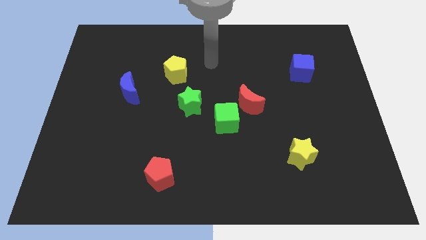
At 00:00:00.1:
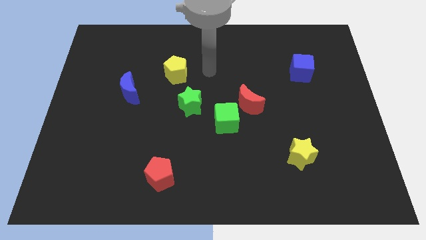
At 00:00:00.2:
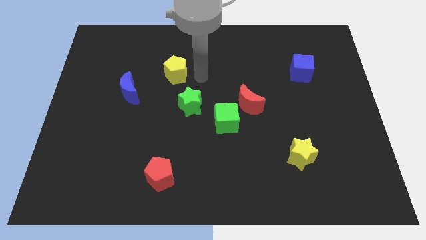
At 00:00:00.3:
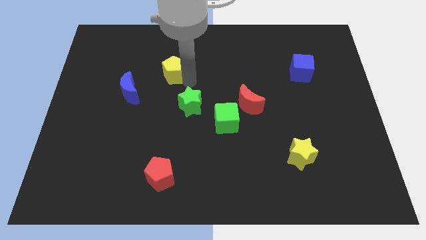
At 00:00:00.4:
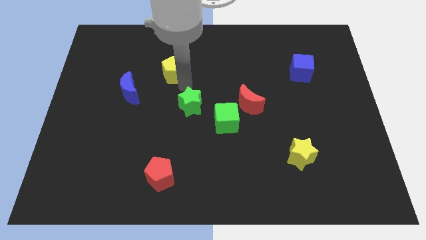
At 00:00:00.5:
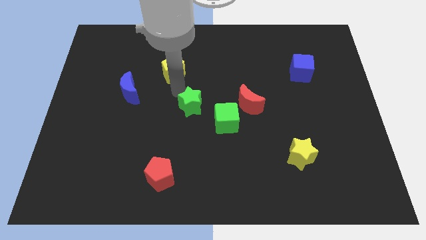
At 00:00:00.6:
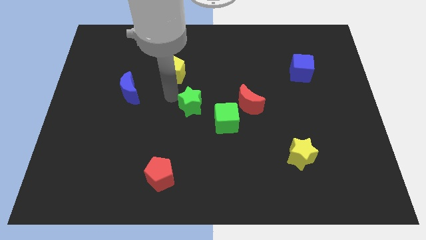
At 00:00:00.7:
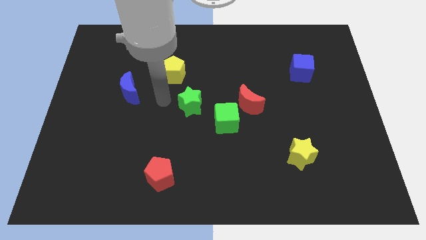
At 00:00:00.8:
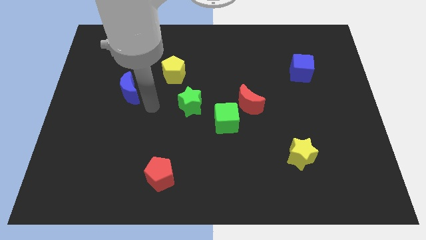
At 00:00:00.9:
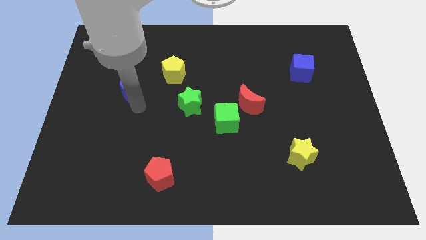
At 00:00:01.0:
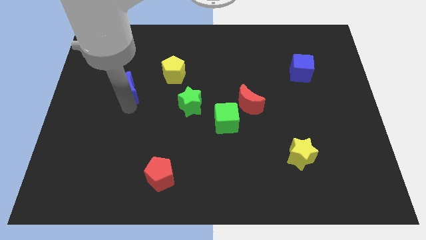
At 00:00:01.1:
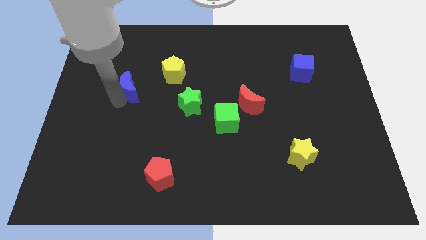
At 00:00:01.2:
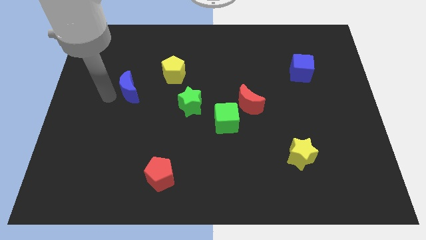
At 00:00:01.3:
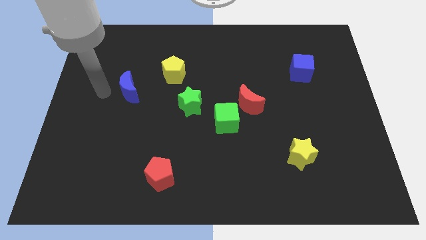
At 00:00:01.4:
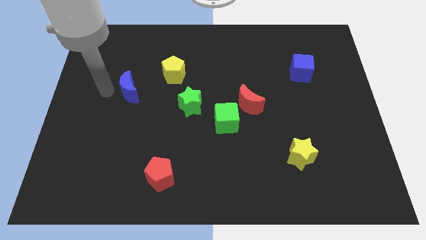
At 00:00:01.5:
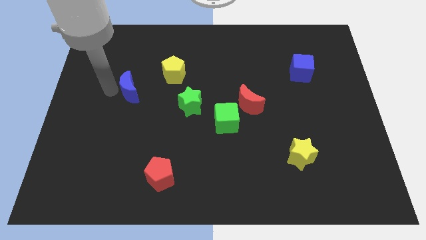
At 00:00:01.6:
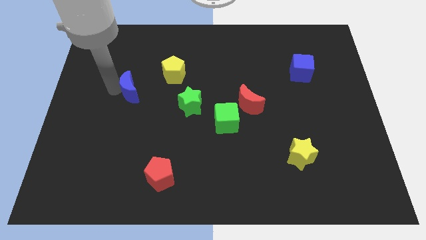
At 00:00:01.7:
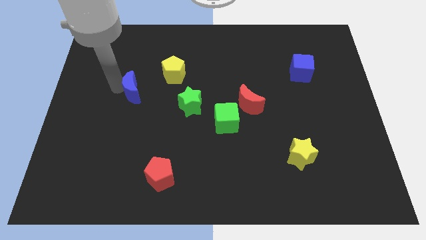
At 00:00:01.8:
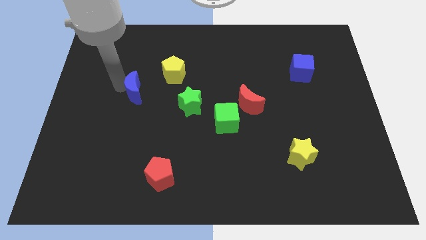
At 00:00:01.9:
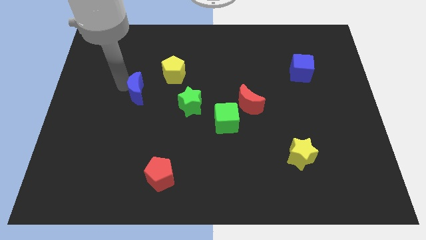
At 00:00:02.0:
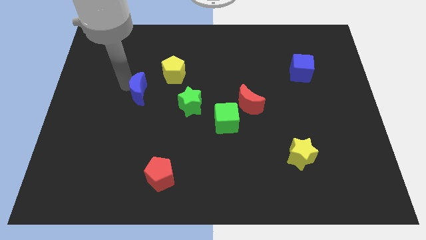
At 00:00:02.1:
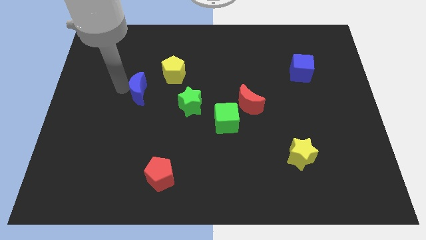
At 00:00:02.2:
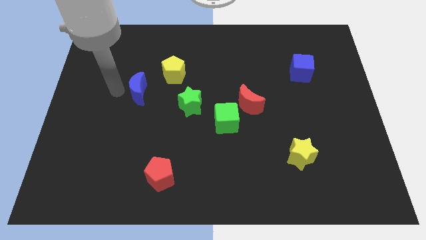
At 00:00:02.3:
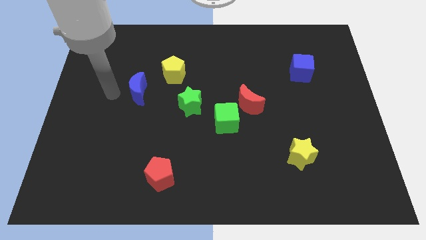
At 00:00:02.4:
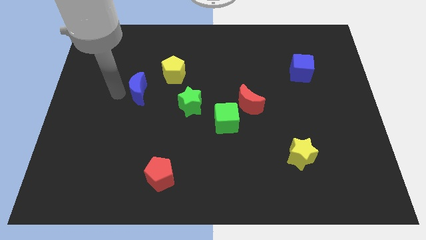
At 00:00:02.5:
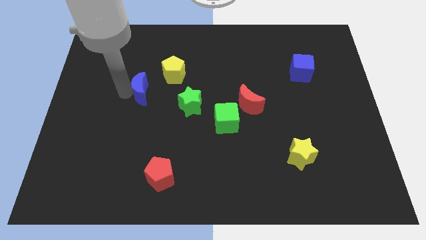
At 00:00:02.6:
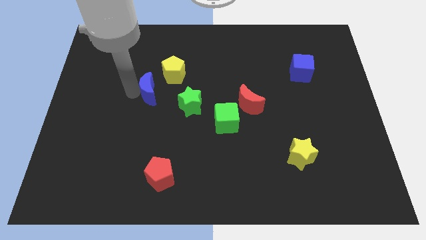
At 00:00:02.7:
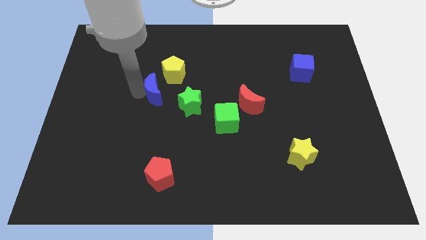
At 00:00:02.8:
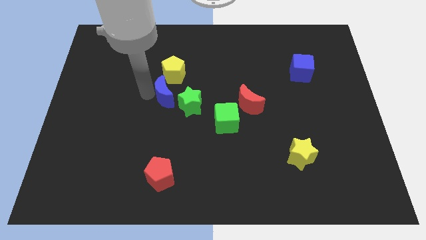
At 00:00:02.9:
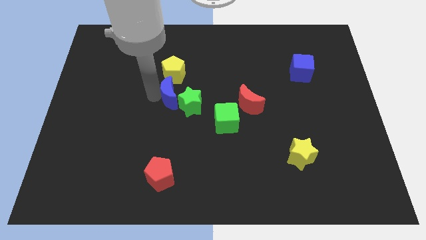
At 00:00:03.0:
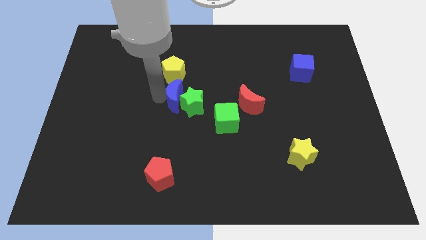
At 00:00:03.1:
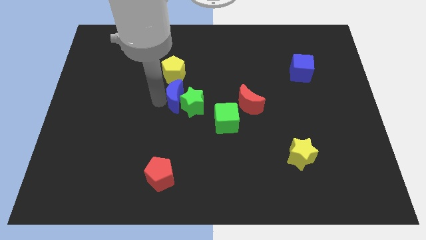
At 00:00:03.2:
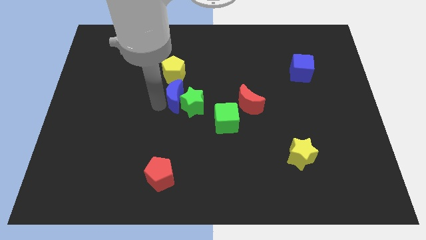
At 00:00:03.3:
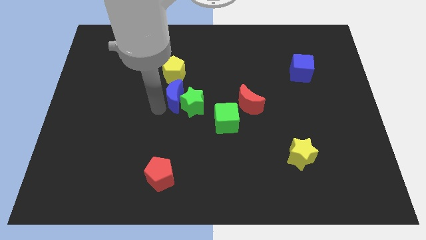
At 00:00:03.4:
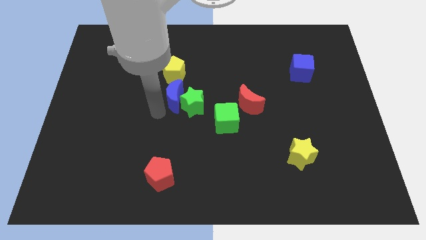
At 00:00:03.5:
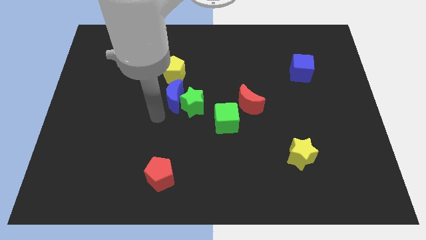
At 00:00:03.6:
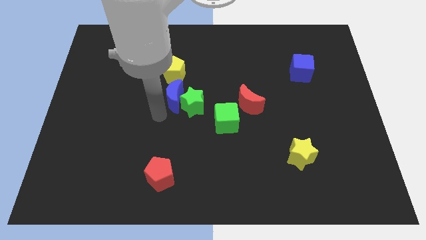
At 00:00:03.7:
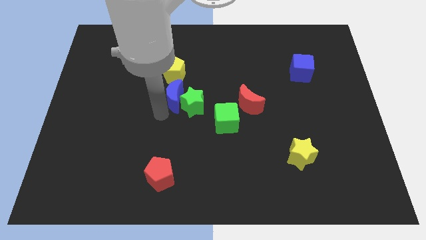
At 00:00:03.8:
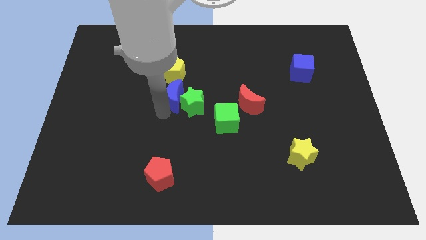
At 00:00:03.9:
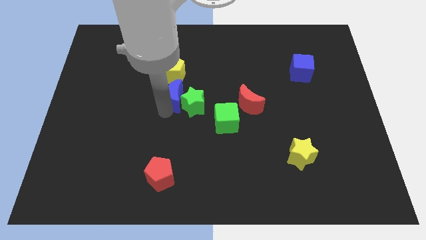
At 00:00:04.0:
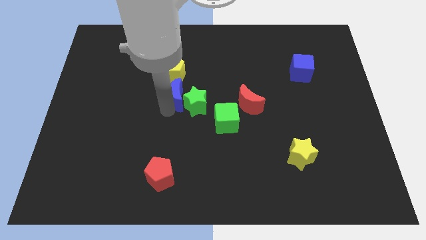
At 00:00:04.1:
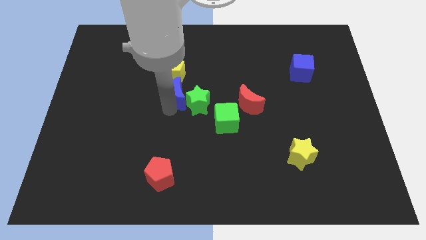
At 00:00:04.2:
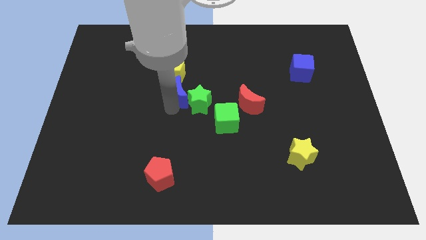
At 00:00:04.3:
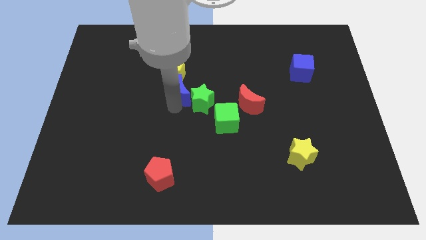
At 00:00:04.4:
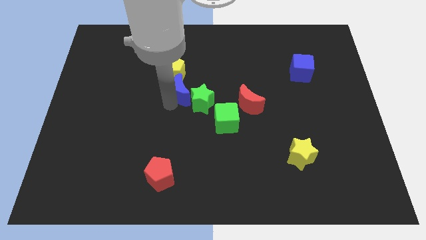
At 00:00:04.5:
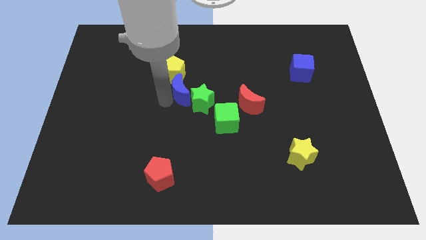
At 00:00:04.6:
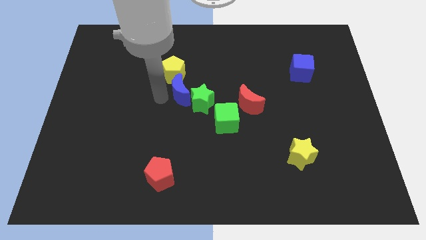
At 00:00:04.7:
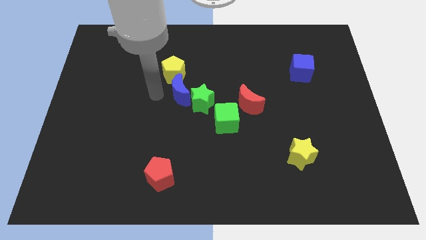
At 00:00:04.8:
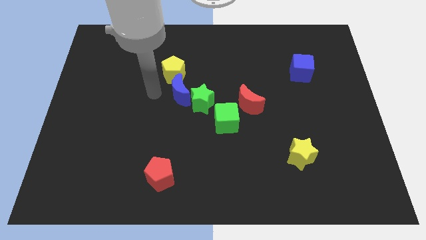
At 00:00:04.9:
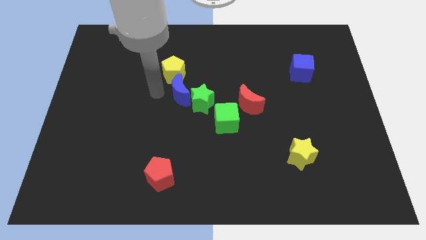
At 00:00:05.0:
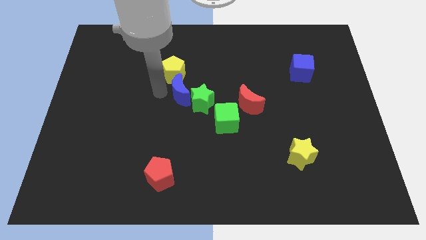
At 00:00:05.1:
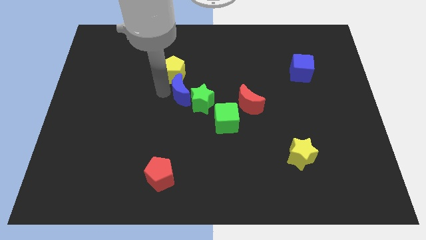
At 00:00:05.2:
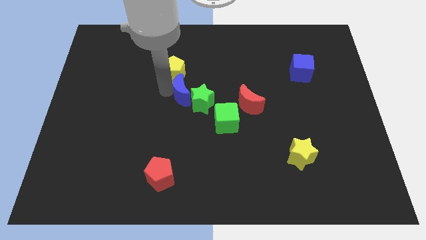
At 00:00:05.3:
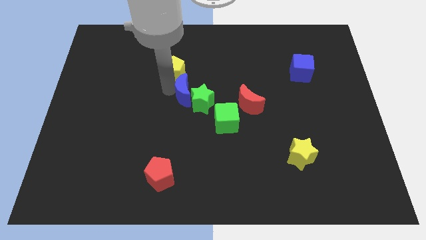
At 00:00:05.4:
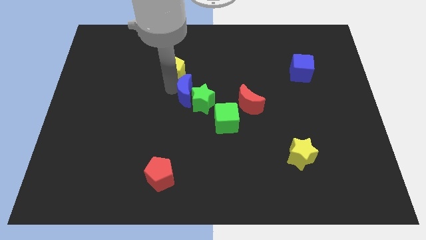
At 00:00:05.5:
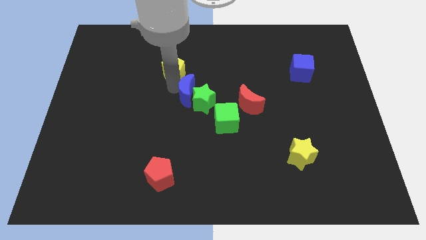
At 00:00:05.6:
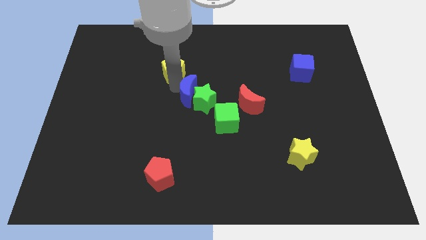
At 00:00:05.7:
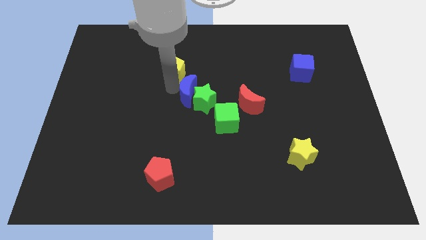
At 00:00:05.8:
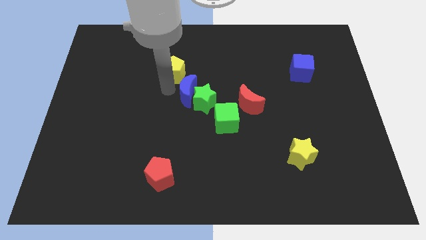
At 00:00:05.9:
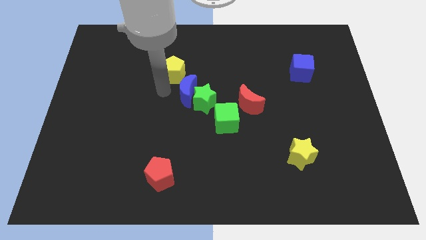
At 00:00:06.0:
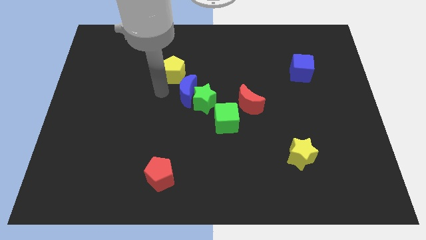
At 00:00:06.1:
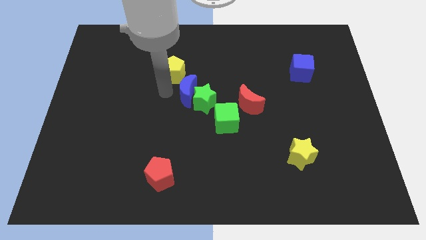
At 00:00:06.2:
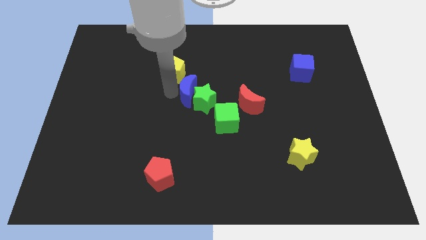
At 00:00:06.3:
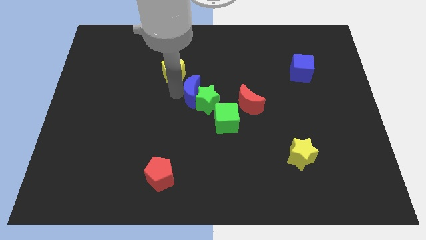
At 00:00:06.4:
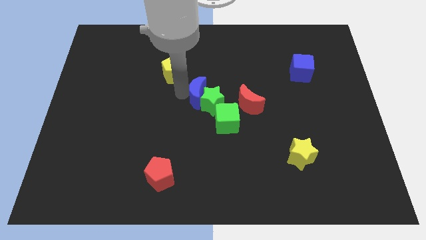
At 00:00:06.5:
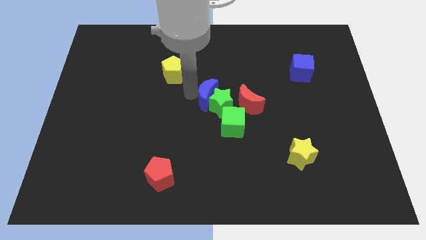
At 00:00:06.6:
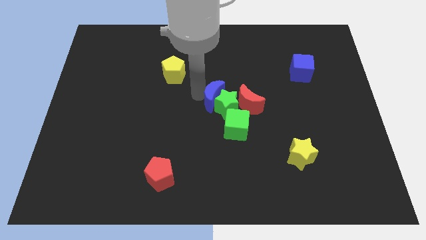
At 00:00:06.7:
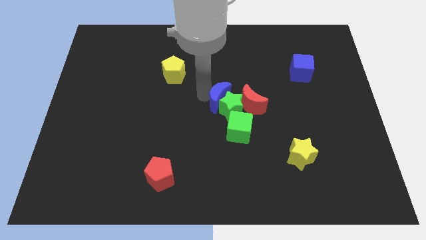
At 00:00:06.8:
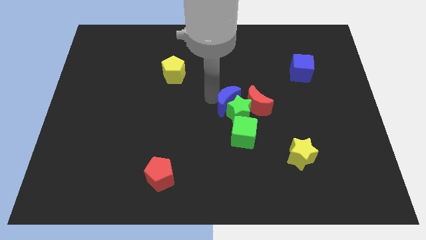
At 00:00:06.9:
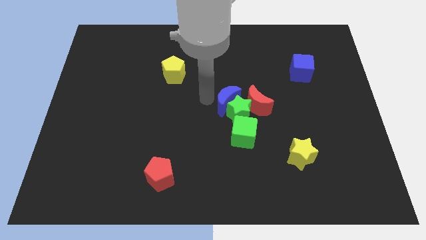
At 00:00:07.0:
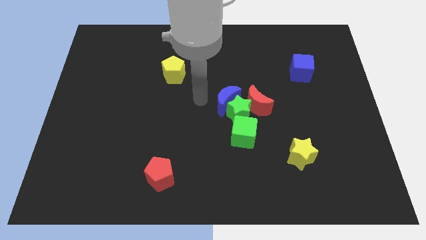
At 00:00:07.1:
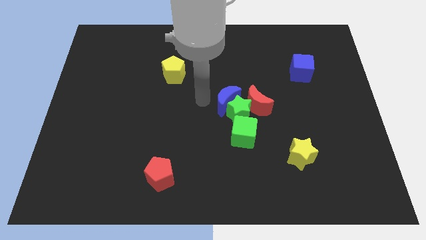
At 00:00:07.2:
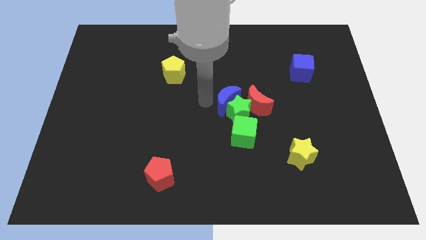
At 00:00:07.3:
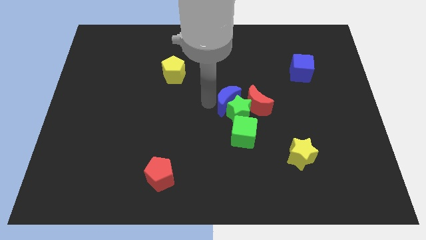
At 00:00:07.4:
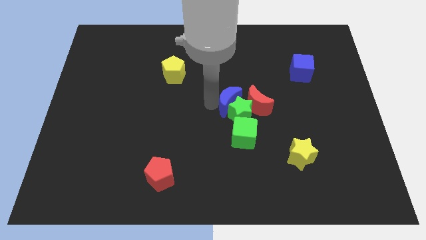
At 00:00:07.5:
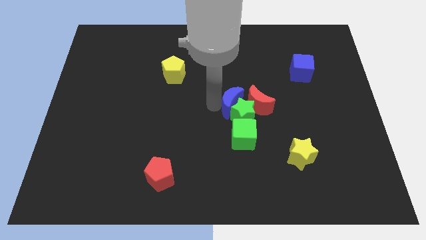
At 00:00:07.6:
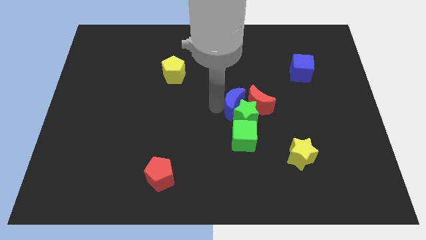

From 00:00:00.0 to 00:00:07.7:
put the blue moon next to the red moon
